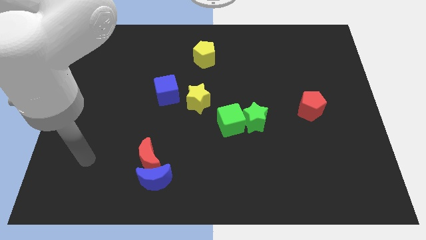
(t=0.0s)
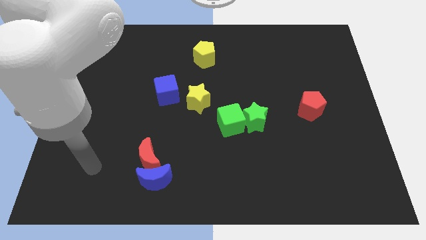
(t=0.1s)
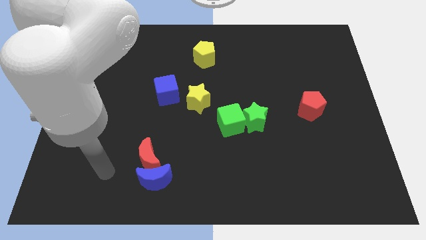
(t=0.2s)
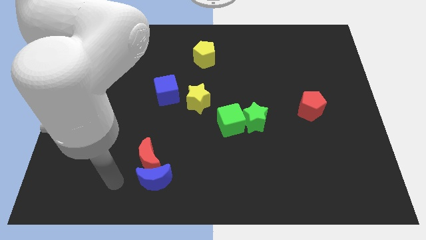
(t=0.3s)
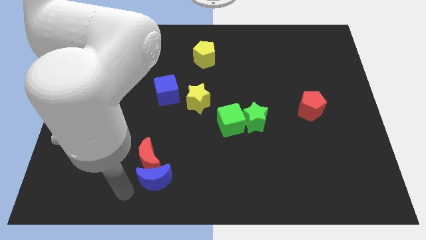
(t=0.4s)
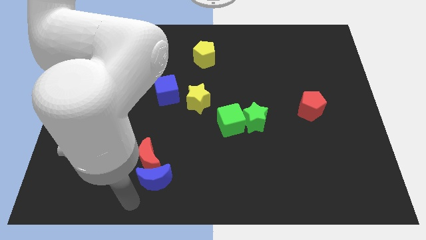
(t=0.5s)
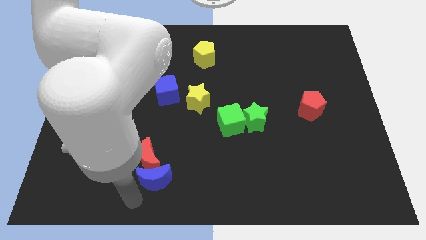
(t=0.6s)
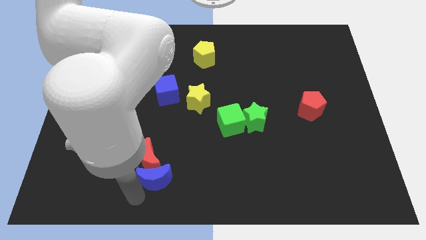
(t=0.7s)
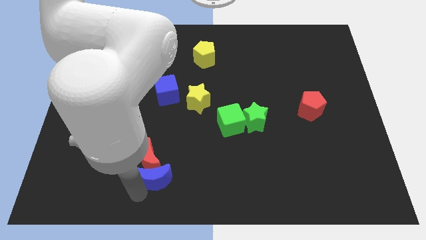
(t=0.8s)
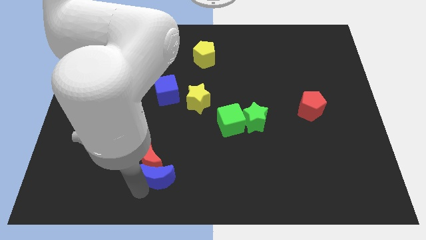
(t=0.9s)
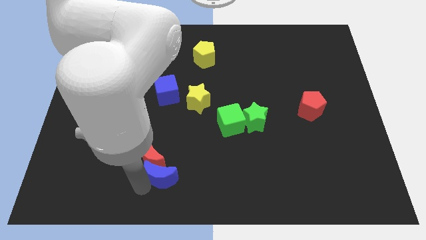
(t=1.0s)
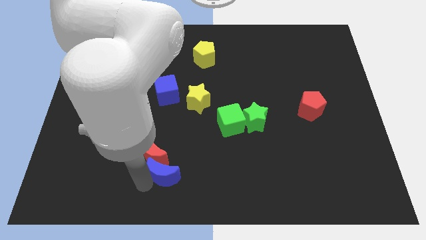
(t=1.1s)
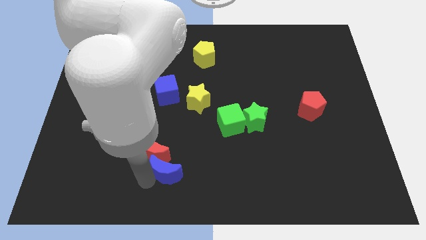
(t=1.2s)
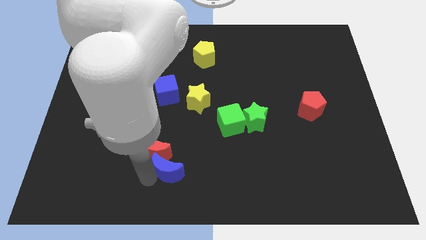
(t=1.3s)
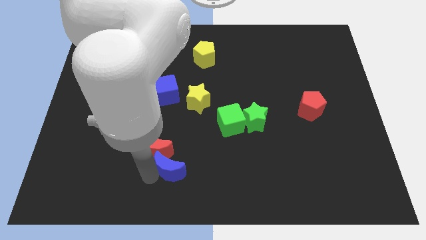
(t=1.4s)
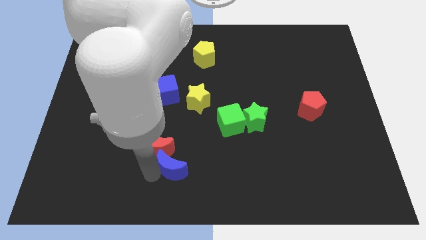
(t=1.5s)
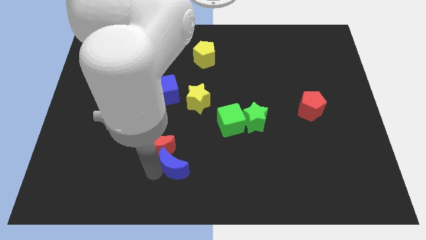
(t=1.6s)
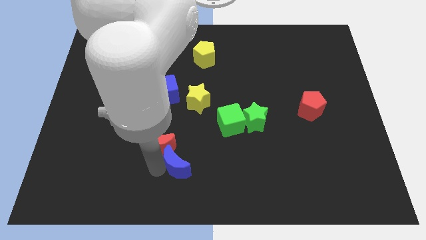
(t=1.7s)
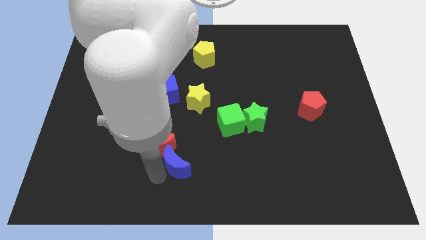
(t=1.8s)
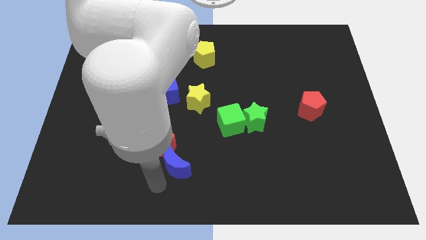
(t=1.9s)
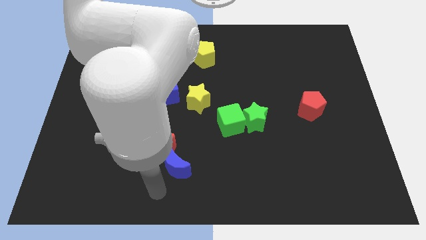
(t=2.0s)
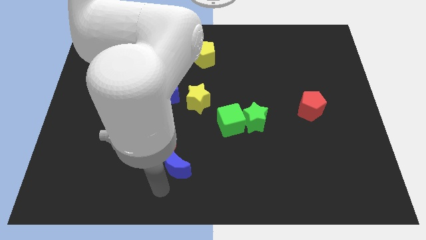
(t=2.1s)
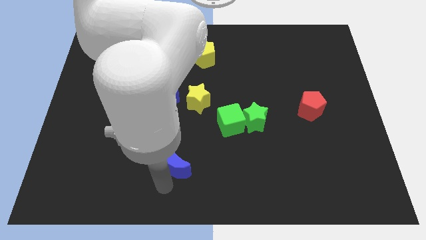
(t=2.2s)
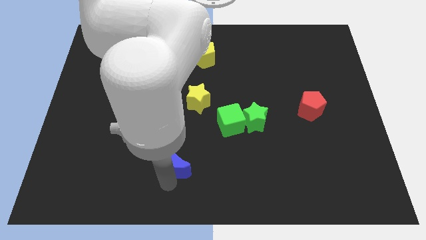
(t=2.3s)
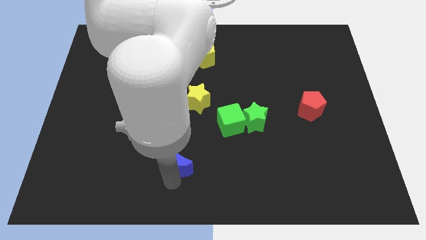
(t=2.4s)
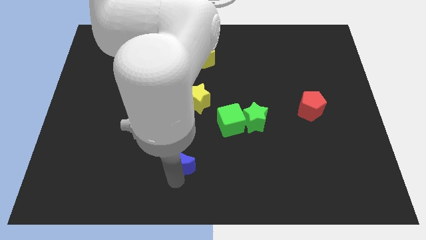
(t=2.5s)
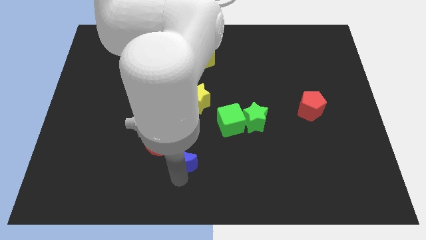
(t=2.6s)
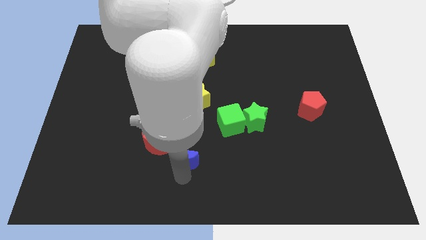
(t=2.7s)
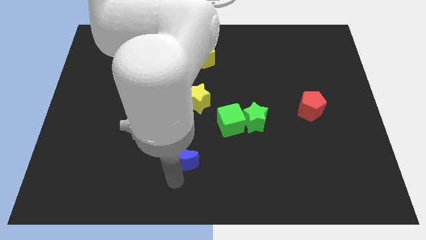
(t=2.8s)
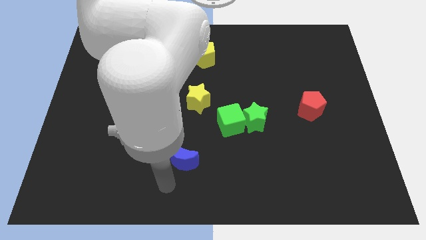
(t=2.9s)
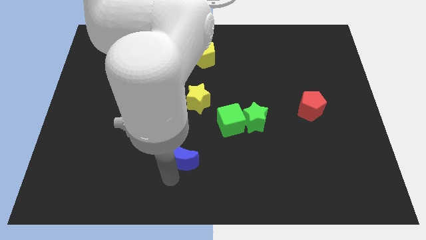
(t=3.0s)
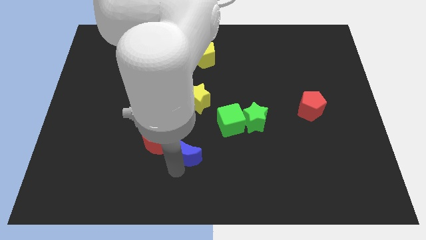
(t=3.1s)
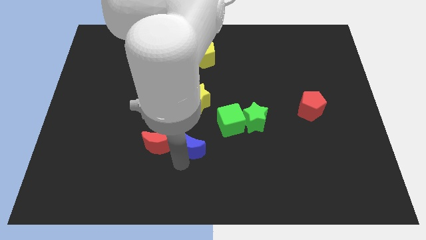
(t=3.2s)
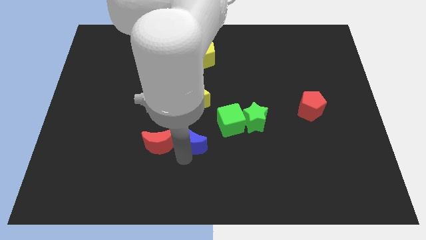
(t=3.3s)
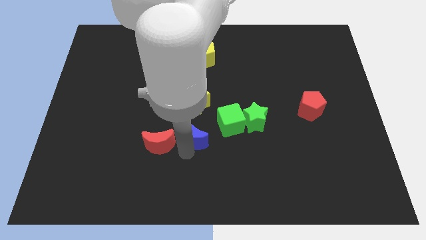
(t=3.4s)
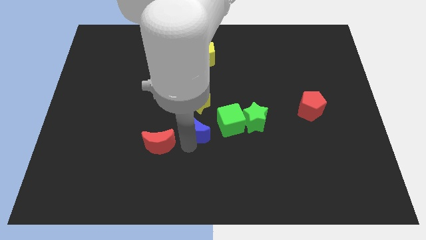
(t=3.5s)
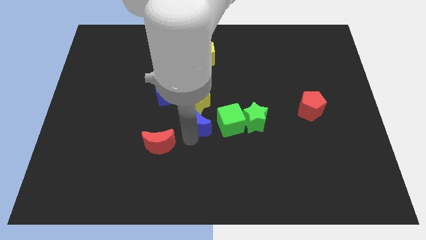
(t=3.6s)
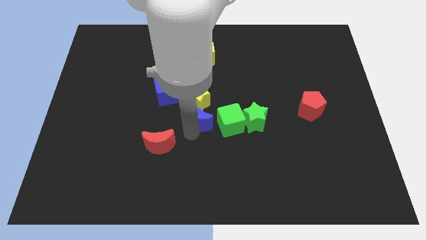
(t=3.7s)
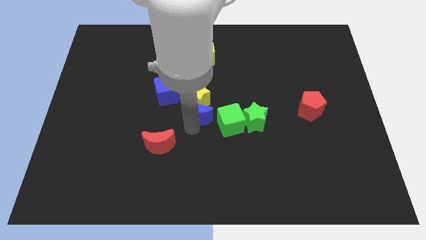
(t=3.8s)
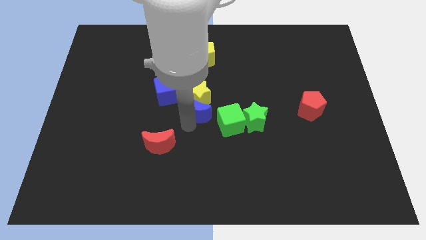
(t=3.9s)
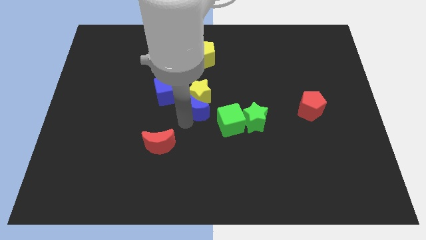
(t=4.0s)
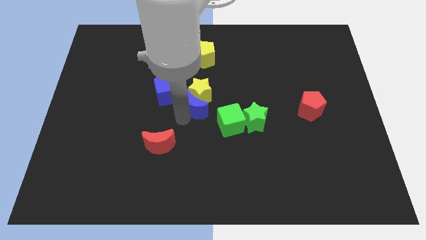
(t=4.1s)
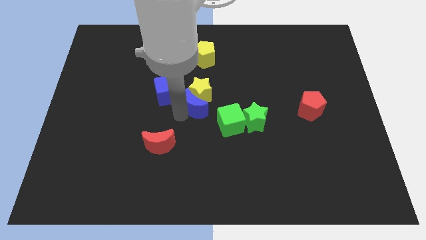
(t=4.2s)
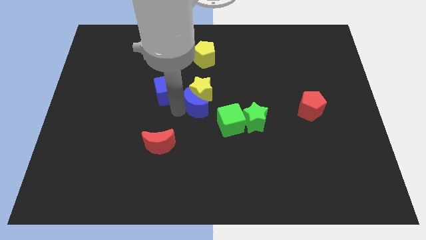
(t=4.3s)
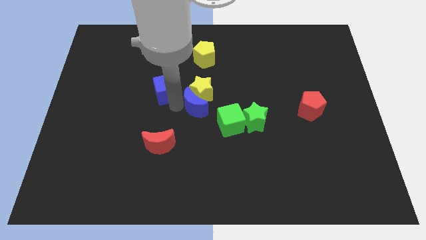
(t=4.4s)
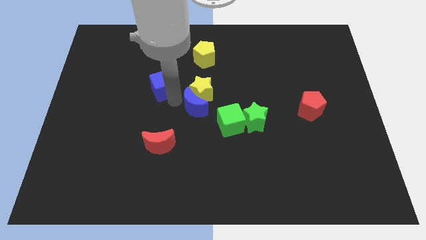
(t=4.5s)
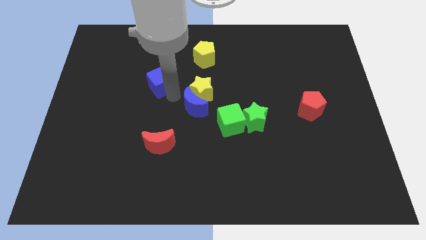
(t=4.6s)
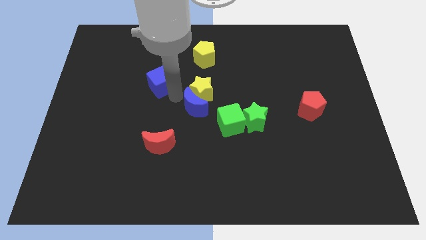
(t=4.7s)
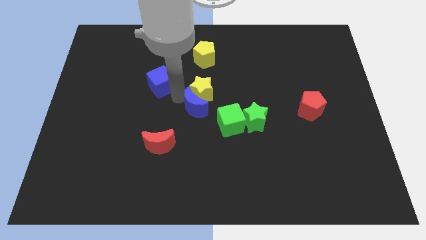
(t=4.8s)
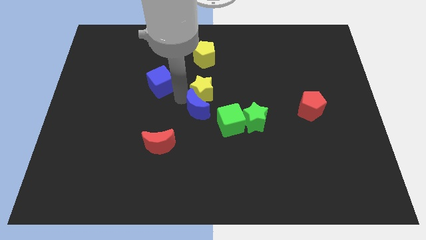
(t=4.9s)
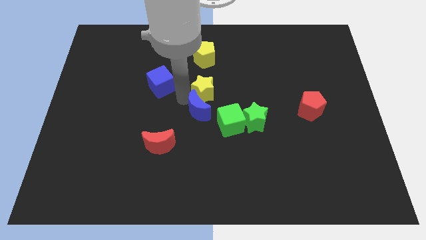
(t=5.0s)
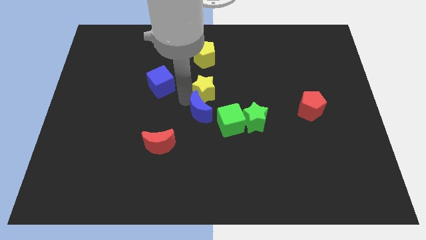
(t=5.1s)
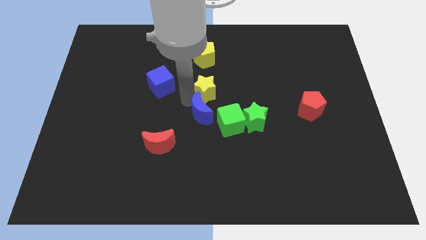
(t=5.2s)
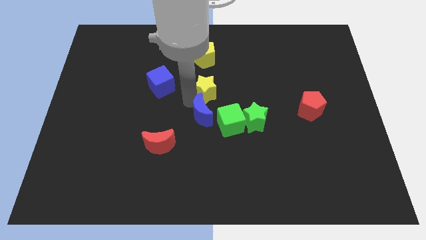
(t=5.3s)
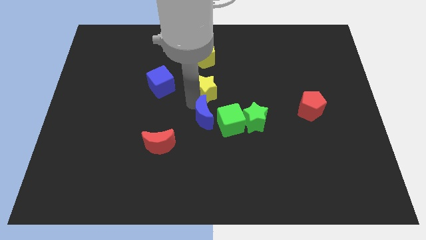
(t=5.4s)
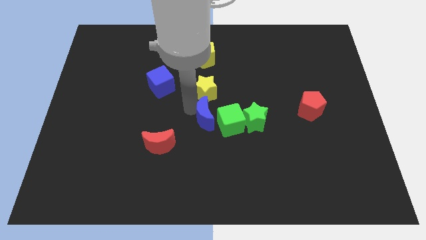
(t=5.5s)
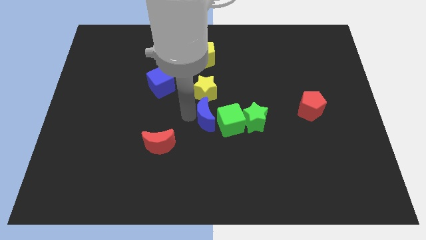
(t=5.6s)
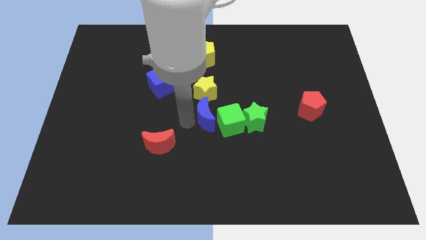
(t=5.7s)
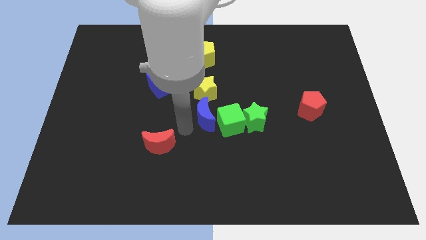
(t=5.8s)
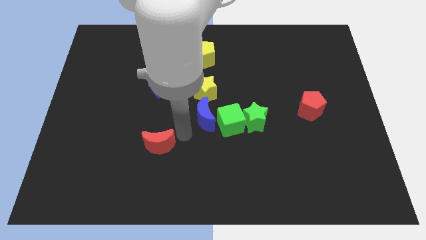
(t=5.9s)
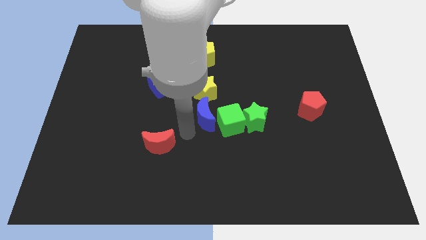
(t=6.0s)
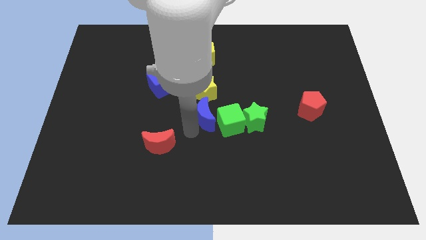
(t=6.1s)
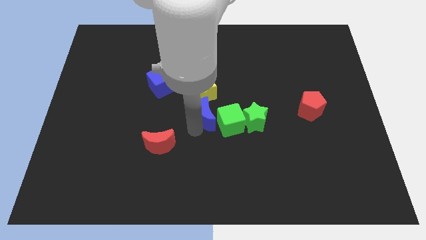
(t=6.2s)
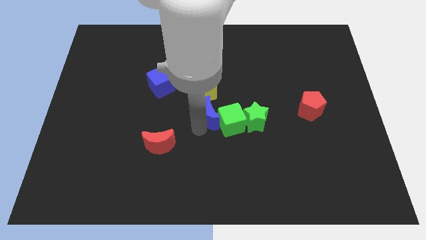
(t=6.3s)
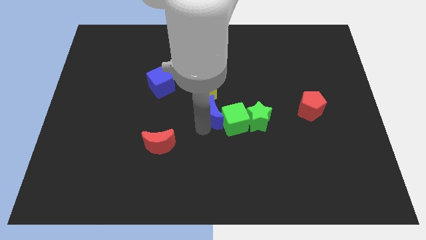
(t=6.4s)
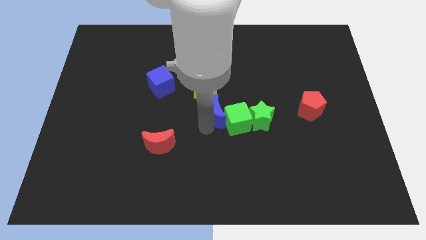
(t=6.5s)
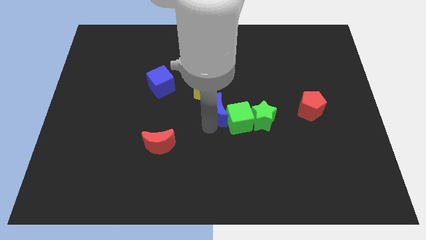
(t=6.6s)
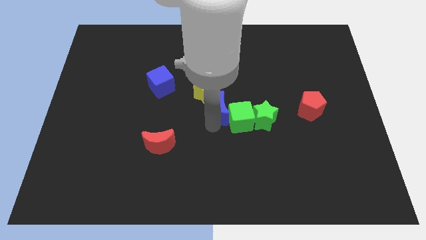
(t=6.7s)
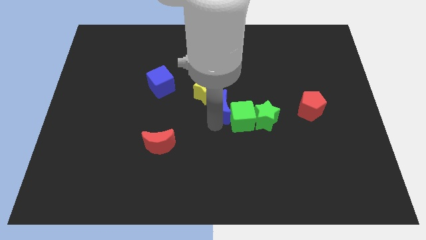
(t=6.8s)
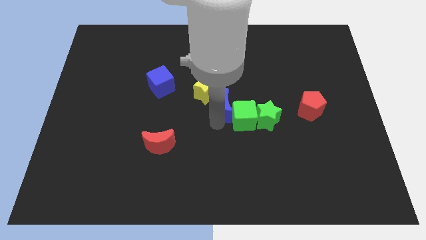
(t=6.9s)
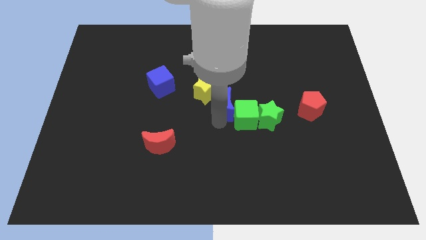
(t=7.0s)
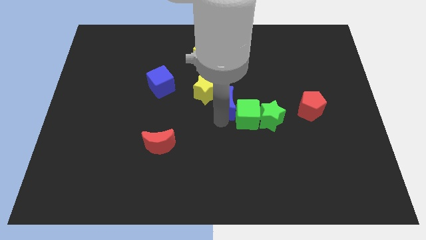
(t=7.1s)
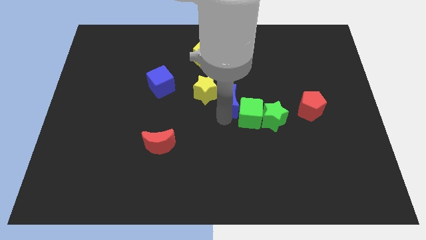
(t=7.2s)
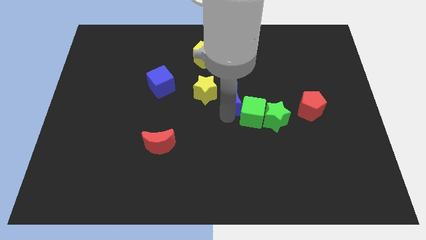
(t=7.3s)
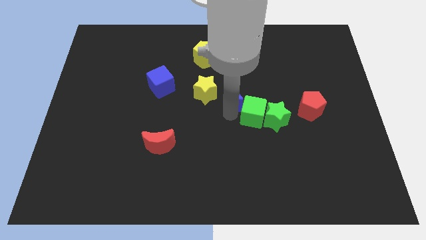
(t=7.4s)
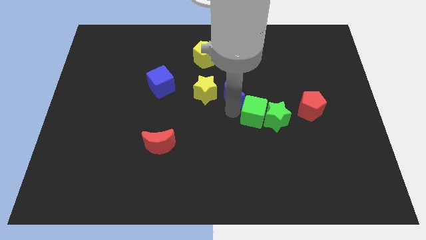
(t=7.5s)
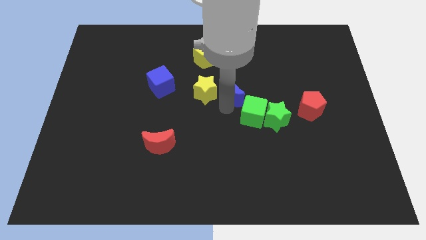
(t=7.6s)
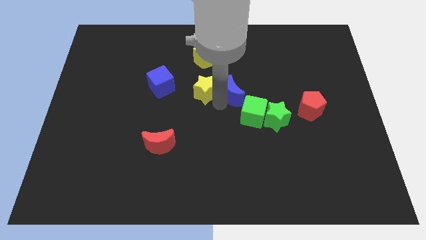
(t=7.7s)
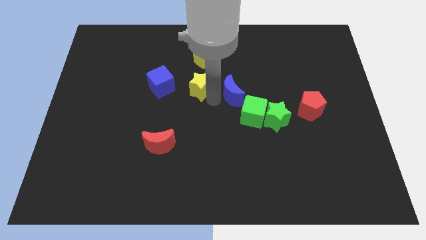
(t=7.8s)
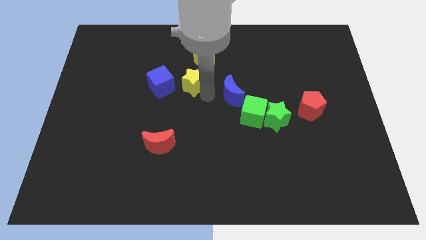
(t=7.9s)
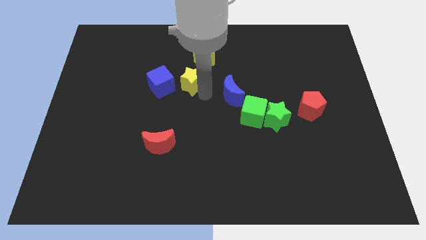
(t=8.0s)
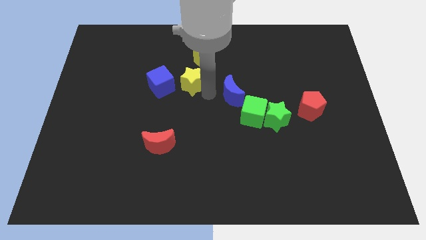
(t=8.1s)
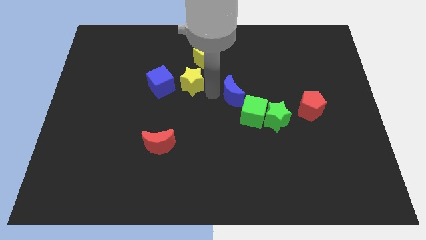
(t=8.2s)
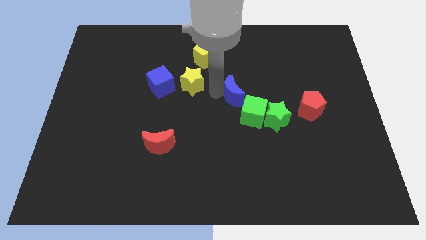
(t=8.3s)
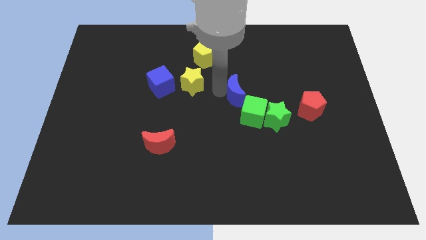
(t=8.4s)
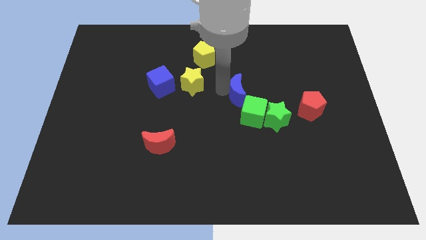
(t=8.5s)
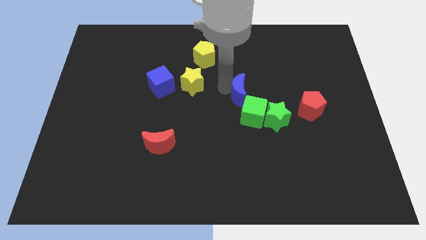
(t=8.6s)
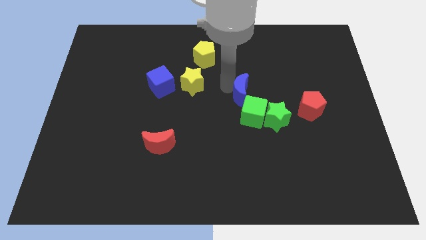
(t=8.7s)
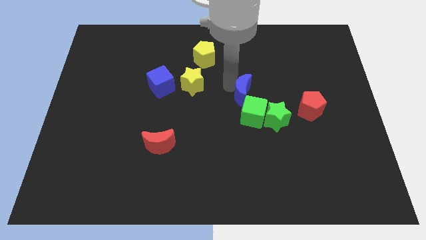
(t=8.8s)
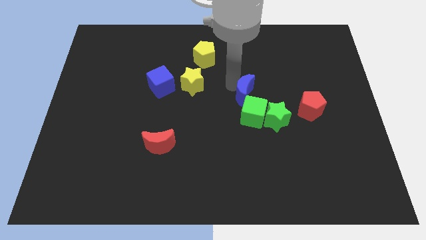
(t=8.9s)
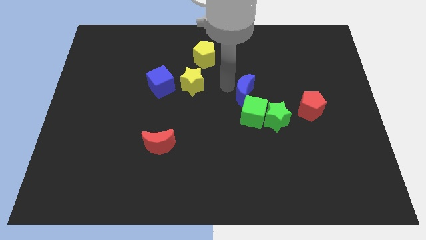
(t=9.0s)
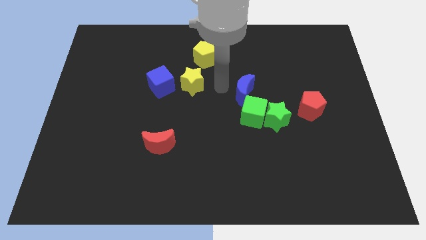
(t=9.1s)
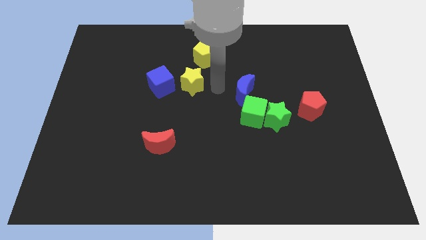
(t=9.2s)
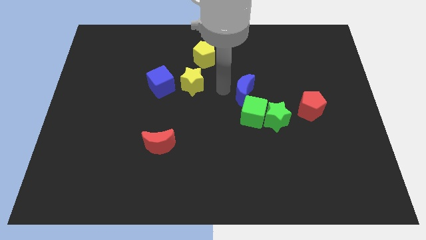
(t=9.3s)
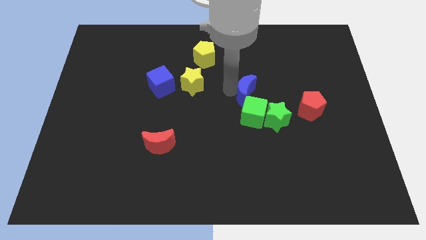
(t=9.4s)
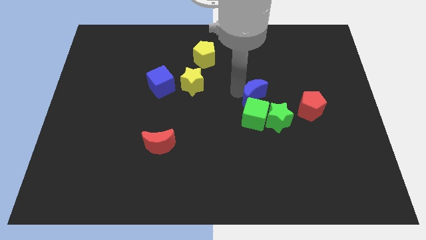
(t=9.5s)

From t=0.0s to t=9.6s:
move the blue moon diagonally up and to the right of the green cube
